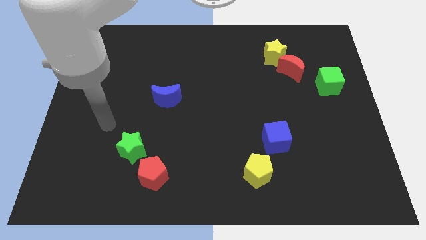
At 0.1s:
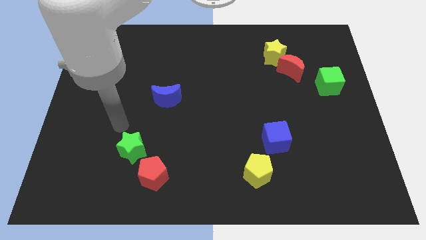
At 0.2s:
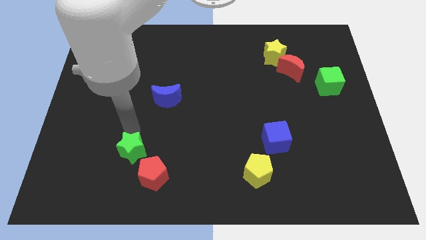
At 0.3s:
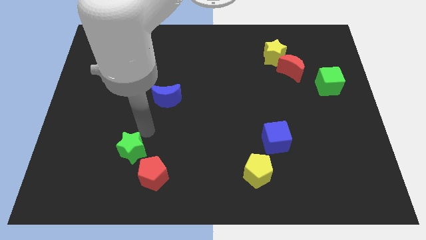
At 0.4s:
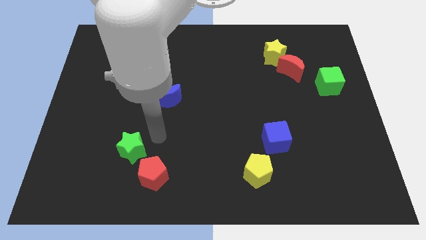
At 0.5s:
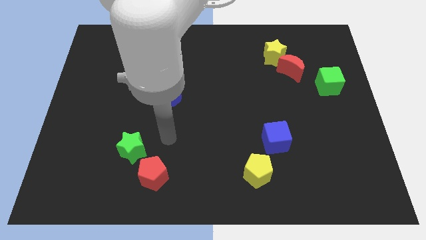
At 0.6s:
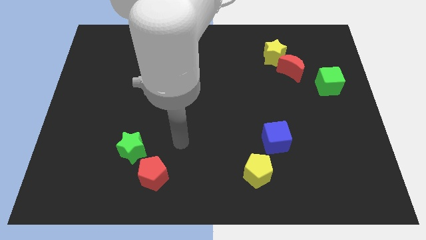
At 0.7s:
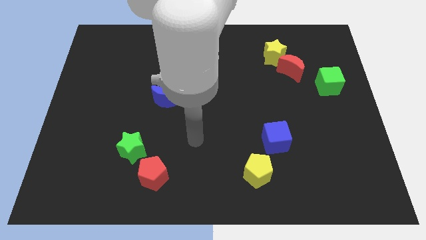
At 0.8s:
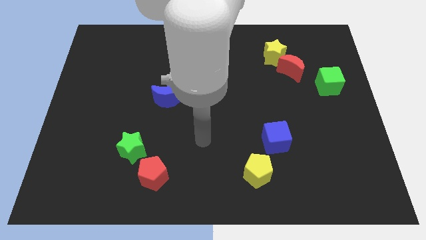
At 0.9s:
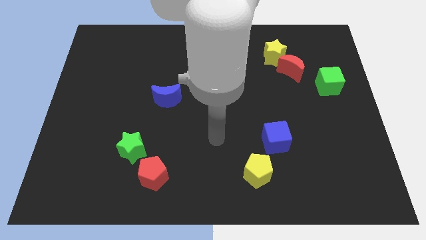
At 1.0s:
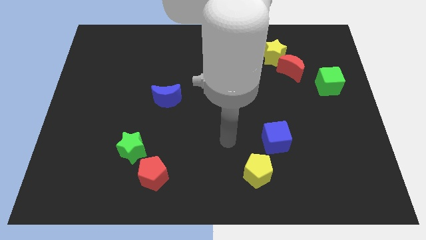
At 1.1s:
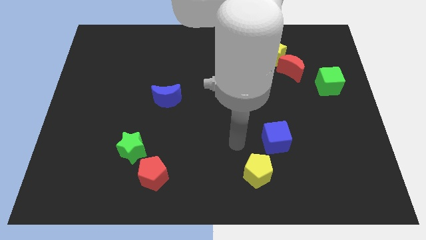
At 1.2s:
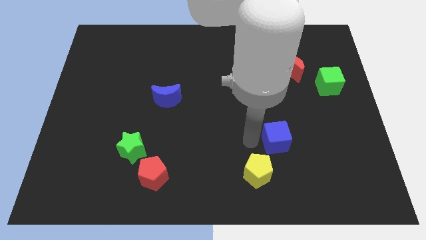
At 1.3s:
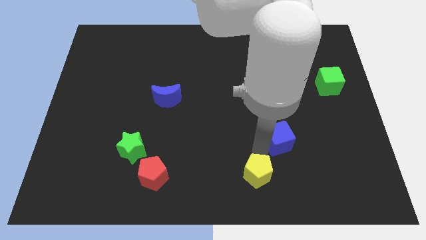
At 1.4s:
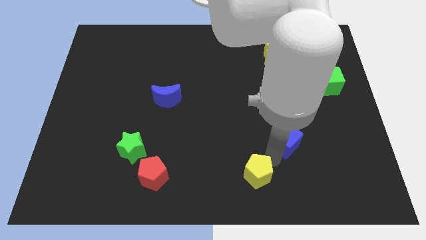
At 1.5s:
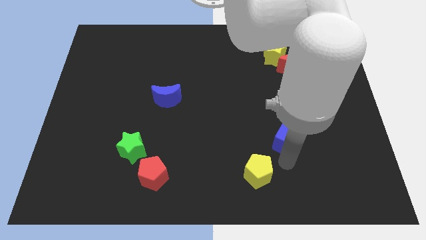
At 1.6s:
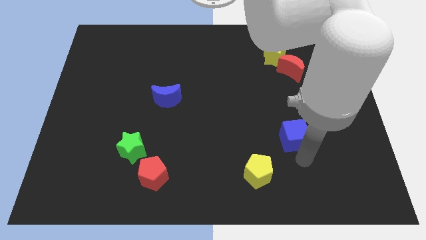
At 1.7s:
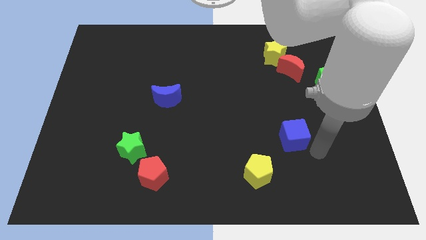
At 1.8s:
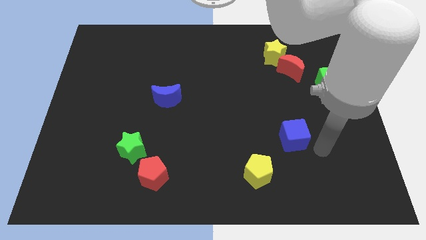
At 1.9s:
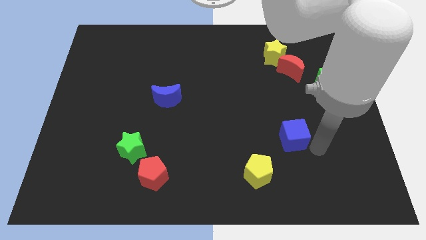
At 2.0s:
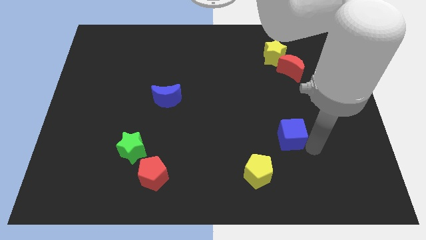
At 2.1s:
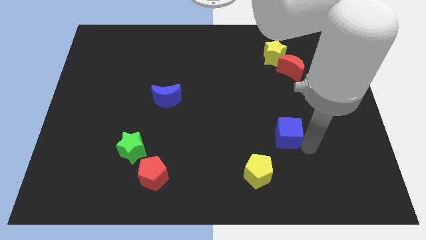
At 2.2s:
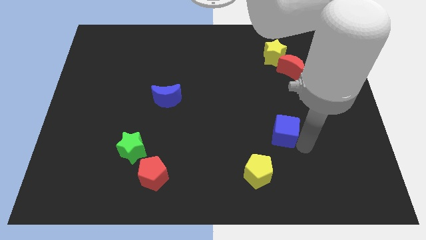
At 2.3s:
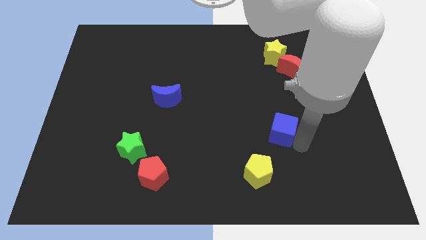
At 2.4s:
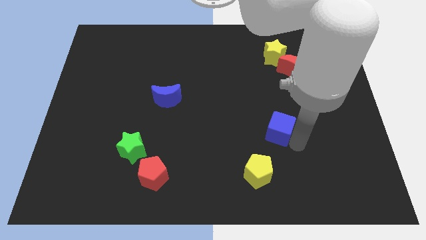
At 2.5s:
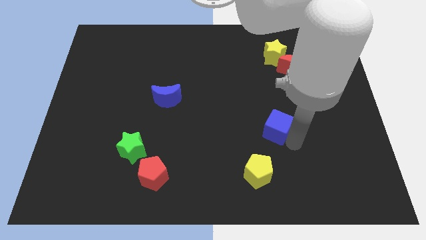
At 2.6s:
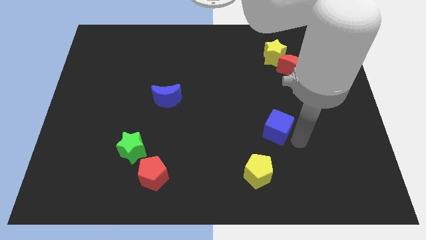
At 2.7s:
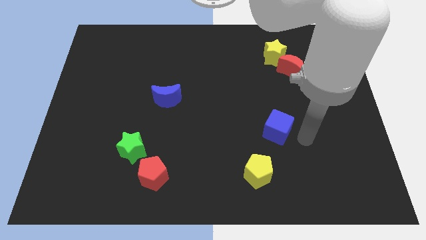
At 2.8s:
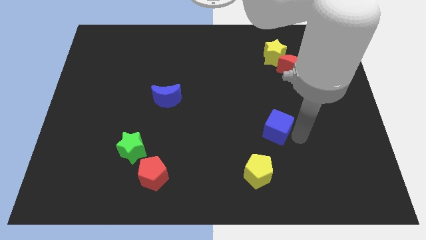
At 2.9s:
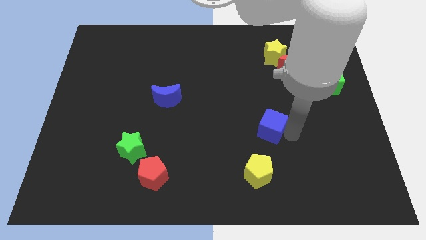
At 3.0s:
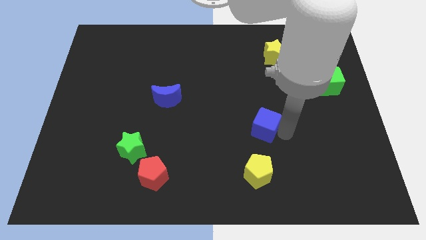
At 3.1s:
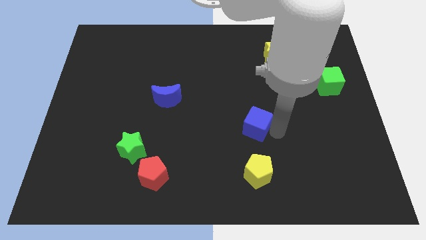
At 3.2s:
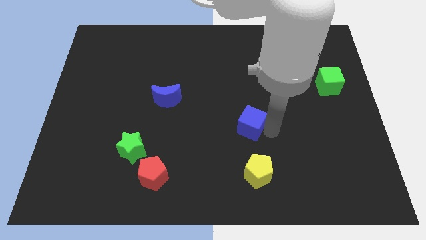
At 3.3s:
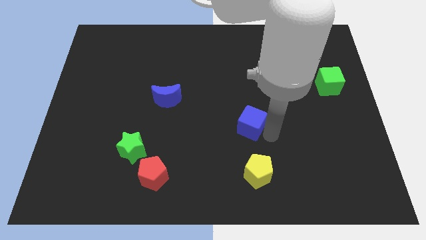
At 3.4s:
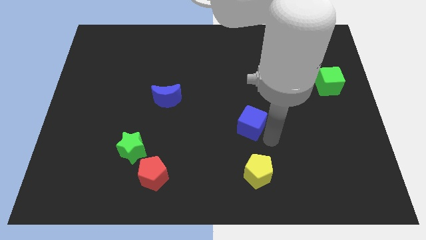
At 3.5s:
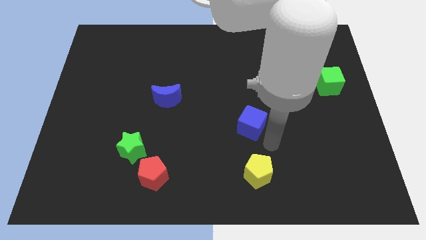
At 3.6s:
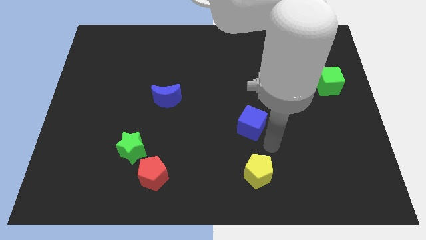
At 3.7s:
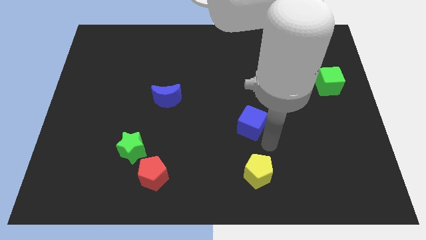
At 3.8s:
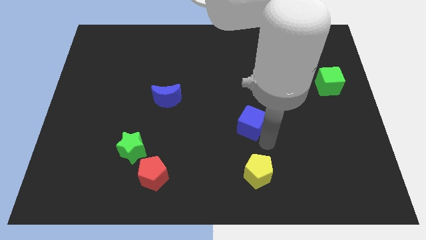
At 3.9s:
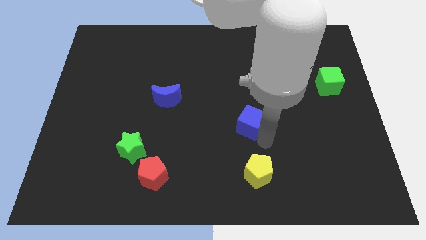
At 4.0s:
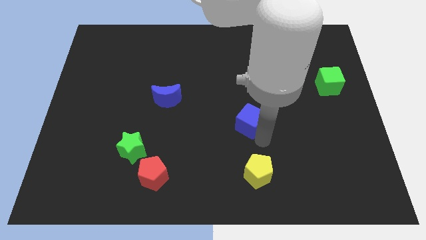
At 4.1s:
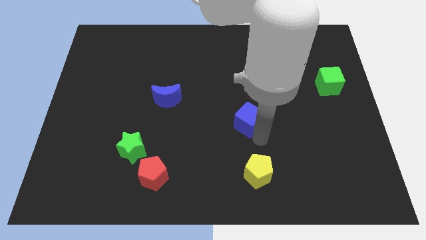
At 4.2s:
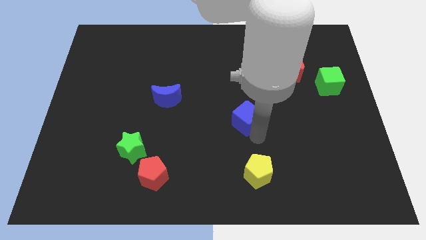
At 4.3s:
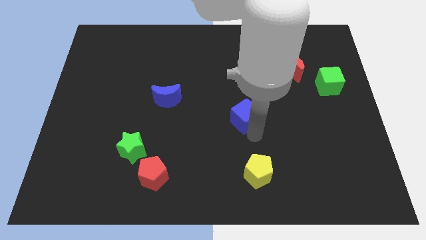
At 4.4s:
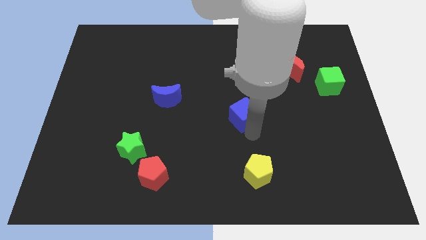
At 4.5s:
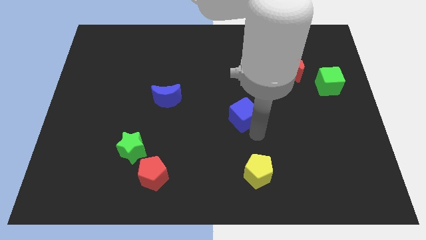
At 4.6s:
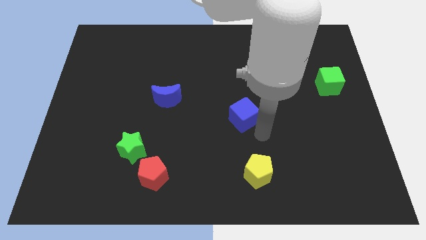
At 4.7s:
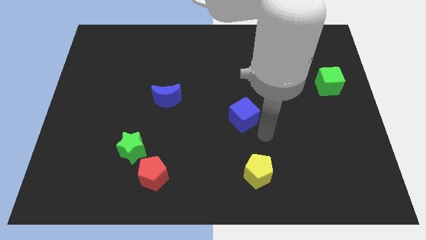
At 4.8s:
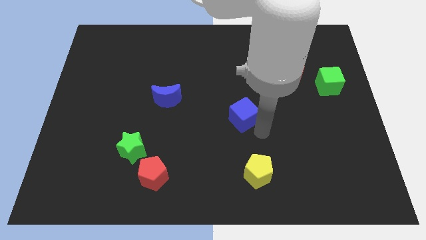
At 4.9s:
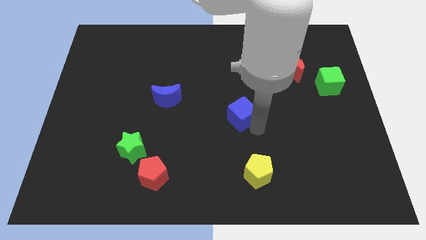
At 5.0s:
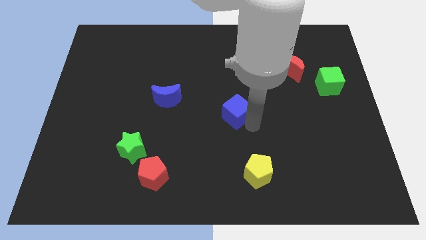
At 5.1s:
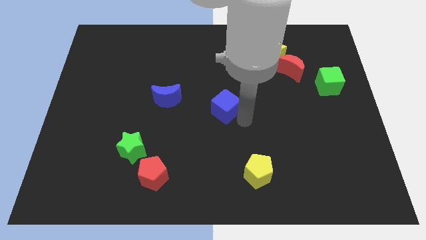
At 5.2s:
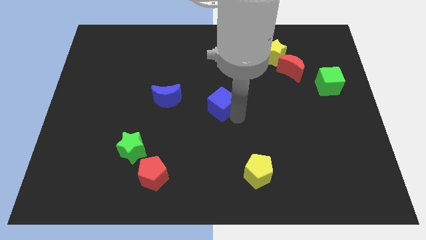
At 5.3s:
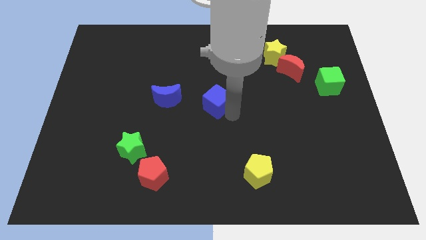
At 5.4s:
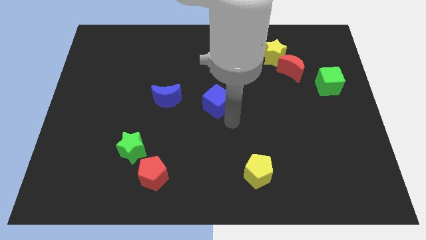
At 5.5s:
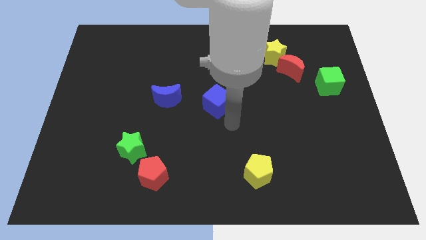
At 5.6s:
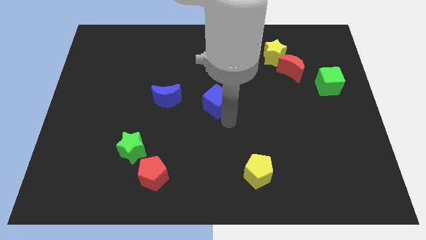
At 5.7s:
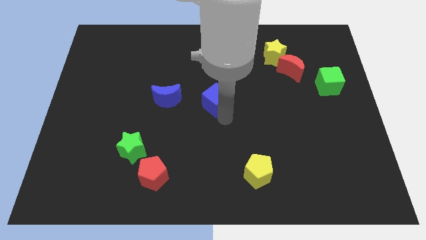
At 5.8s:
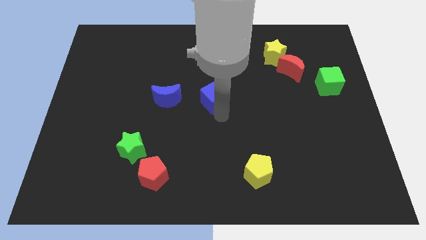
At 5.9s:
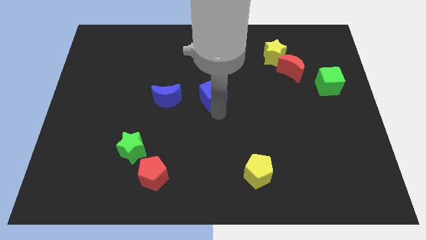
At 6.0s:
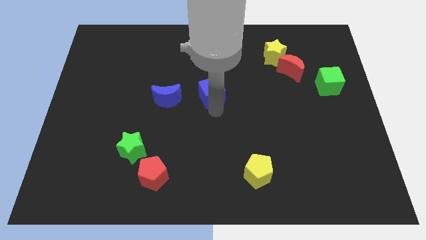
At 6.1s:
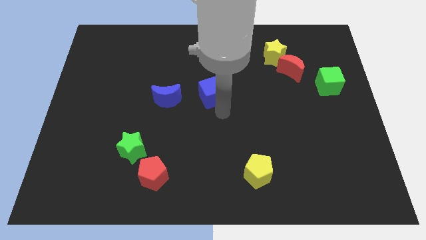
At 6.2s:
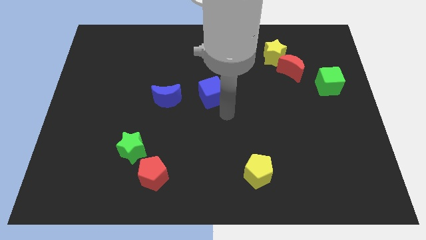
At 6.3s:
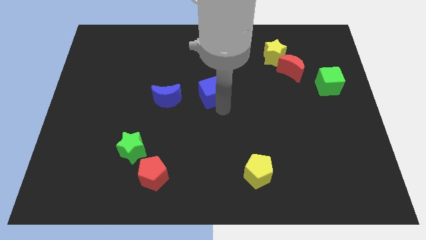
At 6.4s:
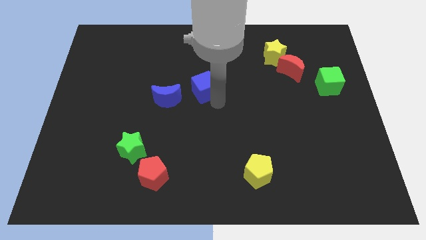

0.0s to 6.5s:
move the blue cube up and to the left diagonally

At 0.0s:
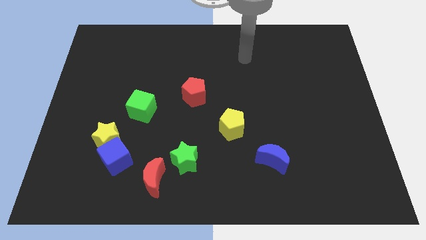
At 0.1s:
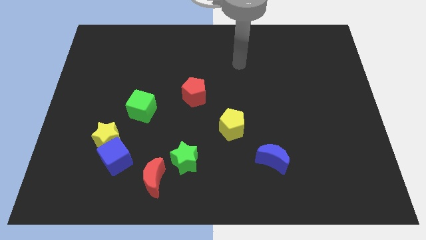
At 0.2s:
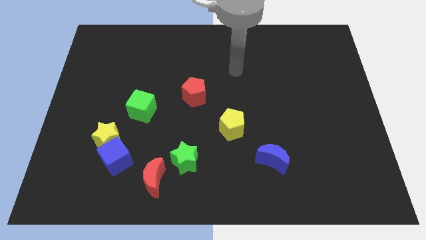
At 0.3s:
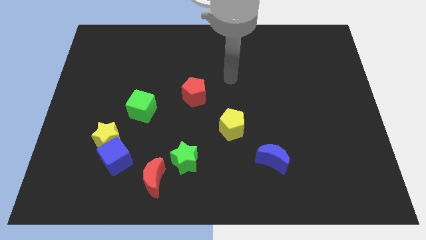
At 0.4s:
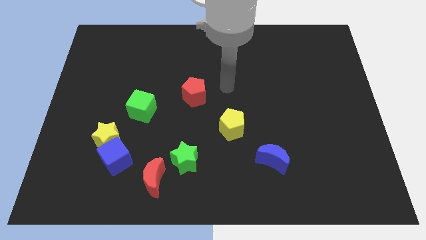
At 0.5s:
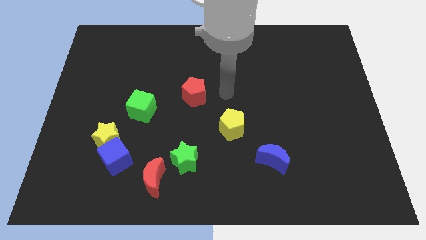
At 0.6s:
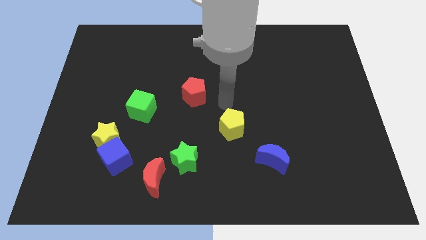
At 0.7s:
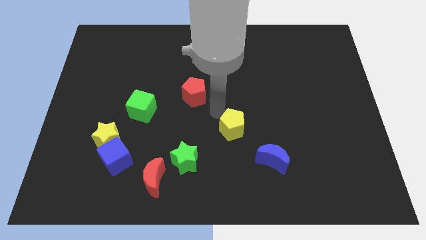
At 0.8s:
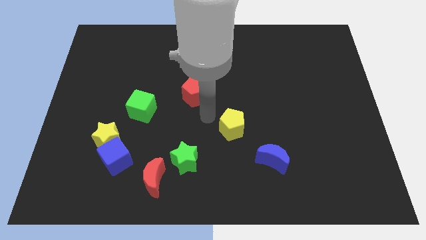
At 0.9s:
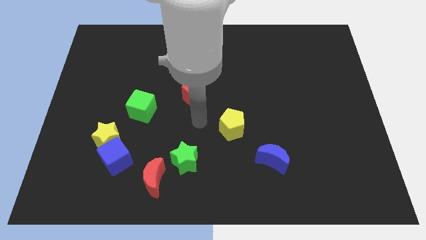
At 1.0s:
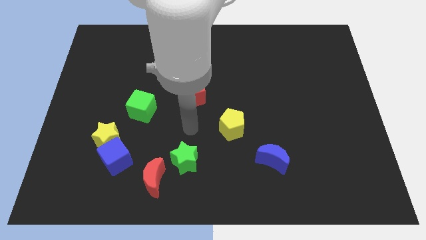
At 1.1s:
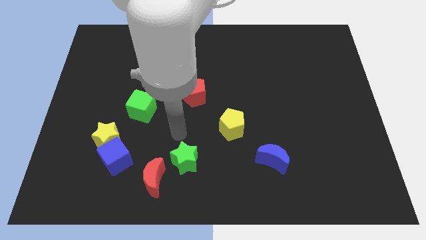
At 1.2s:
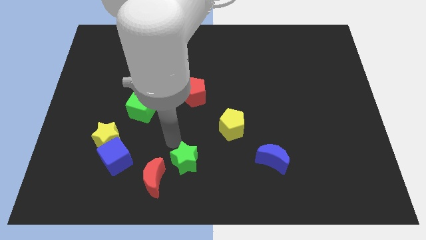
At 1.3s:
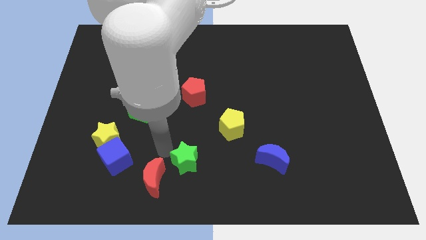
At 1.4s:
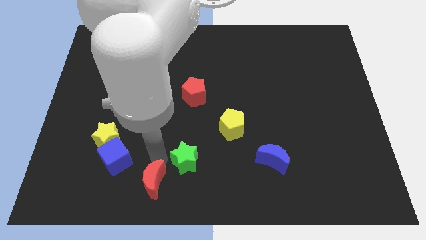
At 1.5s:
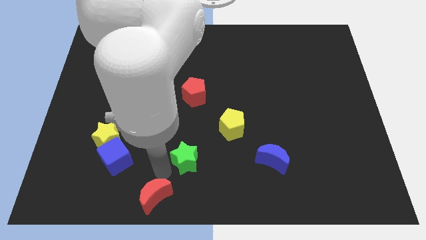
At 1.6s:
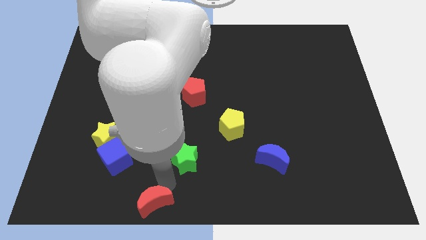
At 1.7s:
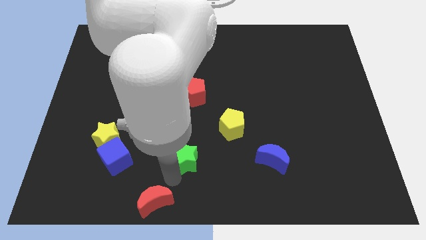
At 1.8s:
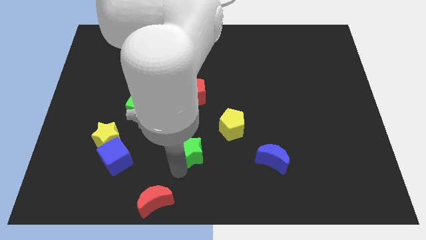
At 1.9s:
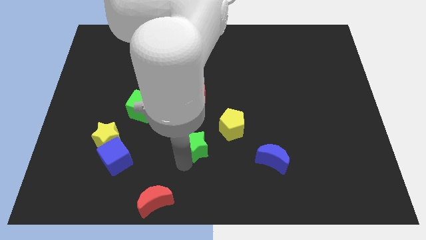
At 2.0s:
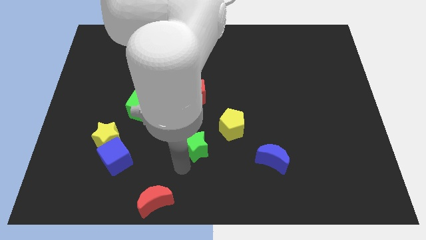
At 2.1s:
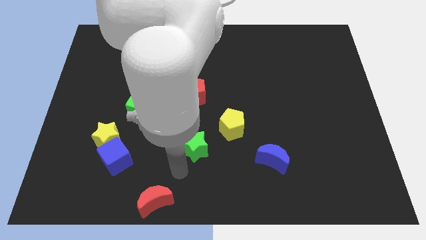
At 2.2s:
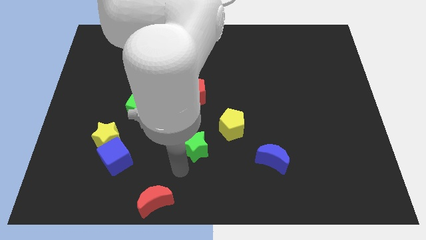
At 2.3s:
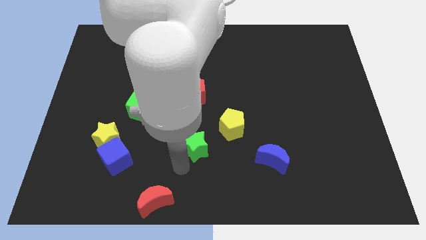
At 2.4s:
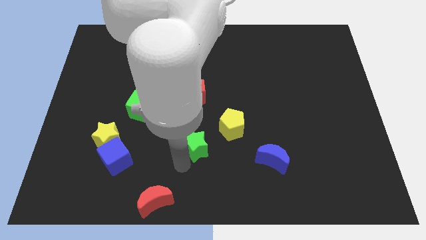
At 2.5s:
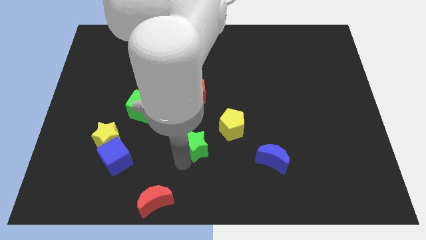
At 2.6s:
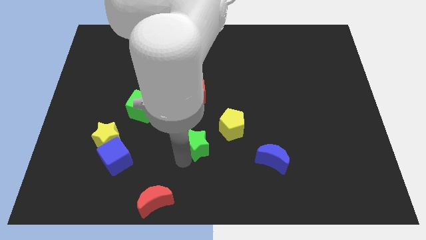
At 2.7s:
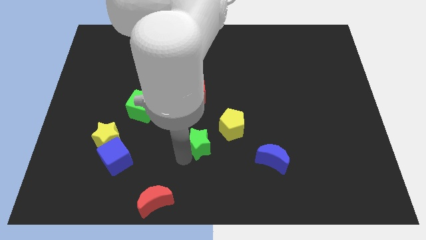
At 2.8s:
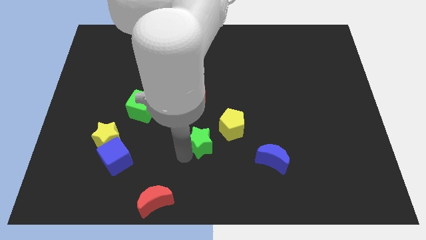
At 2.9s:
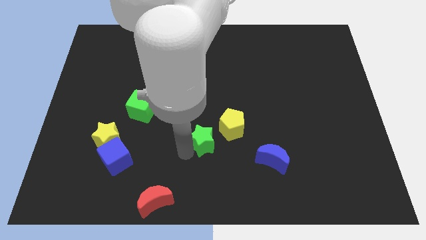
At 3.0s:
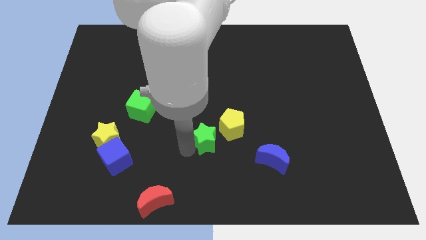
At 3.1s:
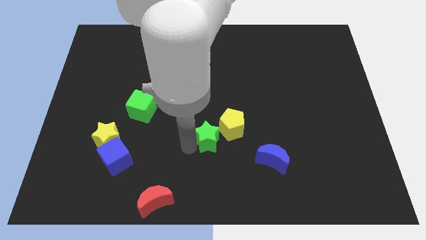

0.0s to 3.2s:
slide the green star diagonally upwards and right somewhat
